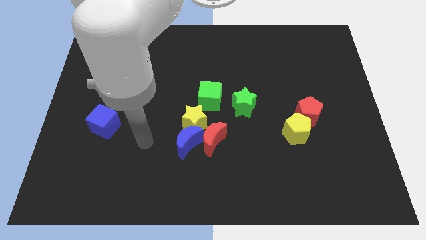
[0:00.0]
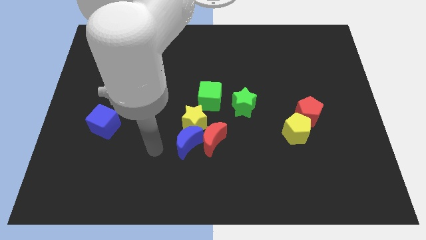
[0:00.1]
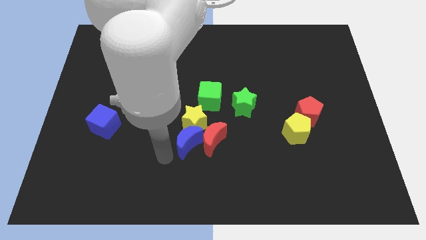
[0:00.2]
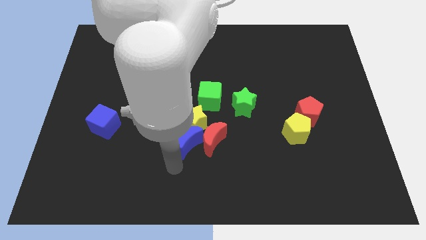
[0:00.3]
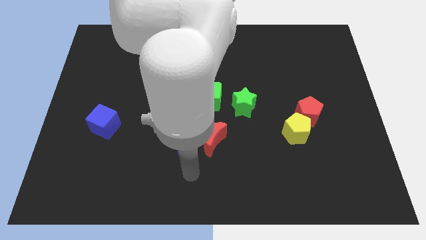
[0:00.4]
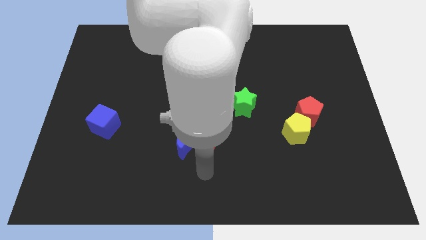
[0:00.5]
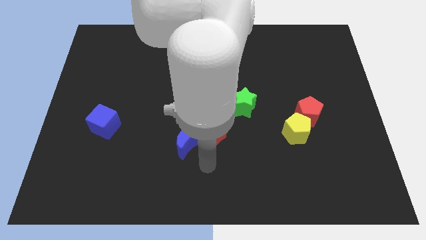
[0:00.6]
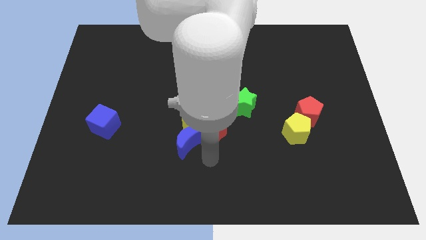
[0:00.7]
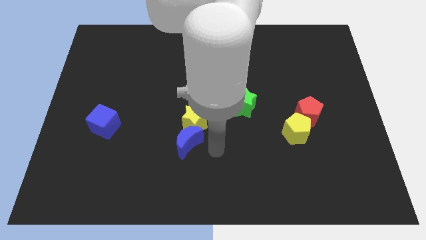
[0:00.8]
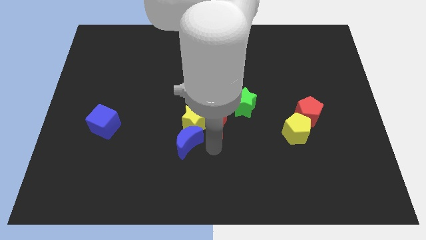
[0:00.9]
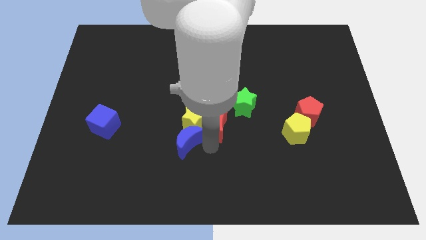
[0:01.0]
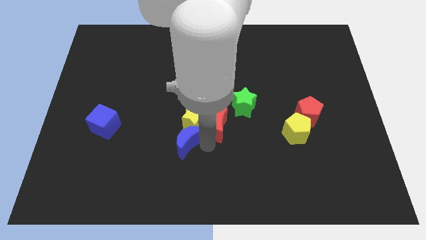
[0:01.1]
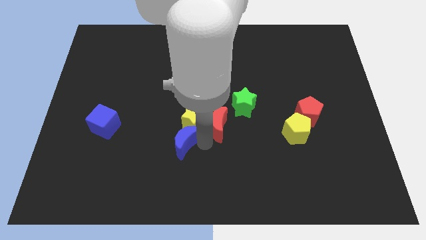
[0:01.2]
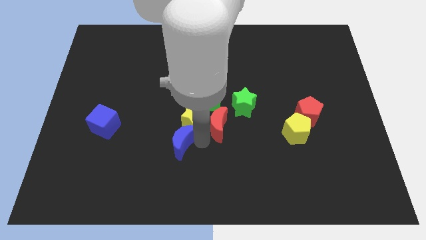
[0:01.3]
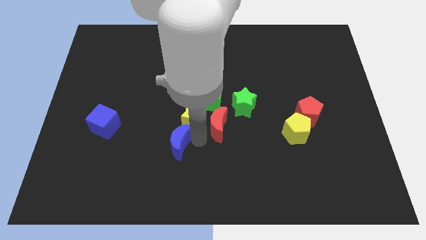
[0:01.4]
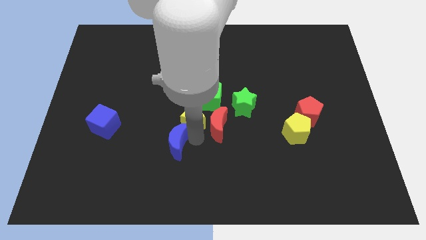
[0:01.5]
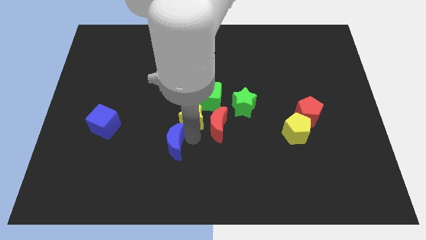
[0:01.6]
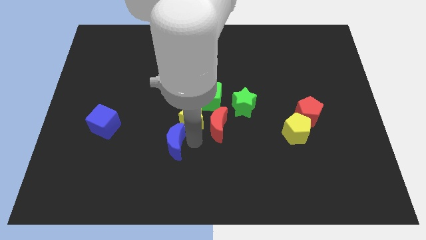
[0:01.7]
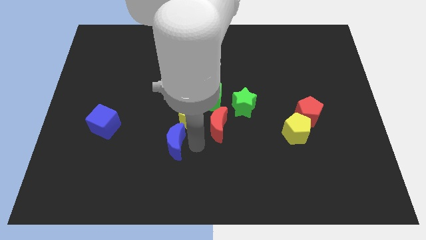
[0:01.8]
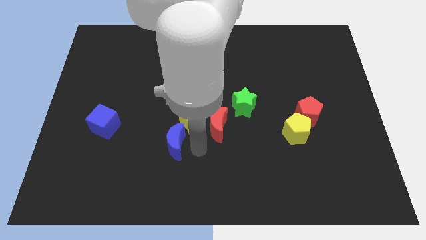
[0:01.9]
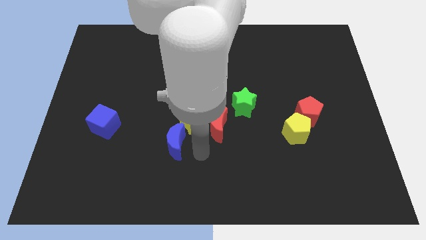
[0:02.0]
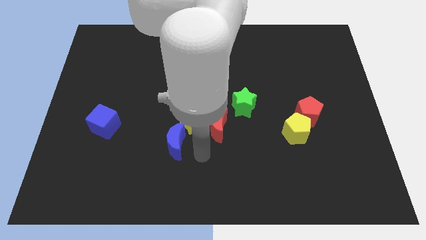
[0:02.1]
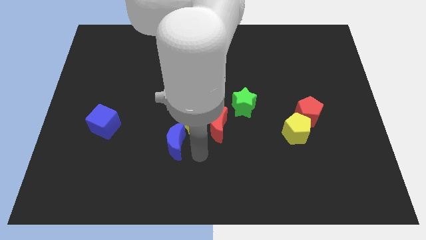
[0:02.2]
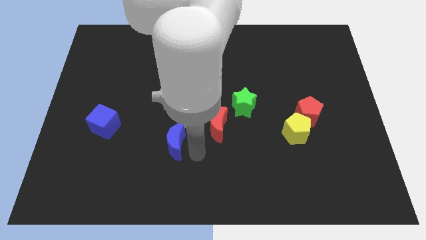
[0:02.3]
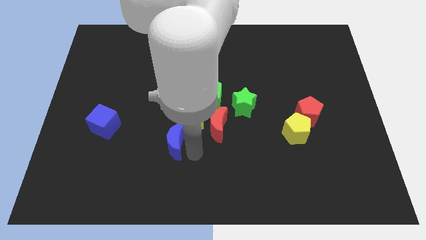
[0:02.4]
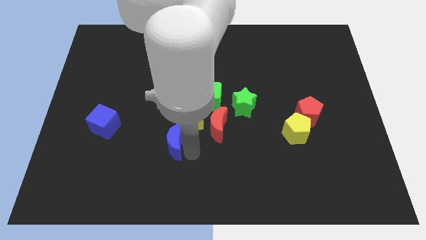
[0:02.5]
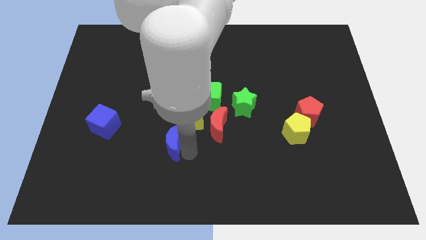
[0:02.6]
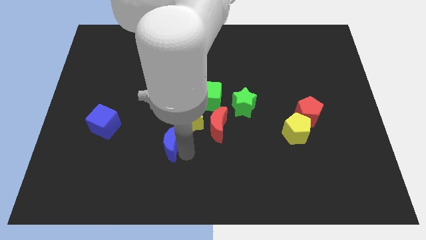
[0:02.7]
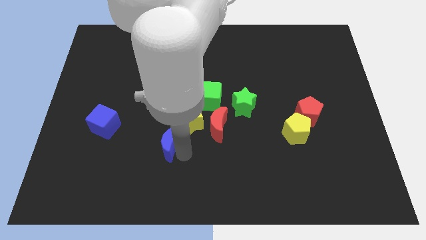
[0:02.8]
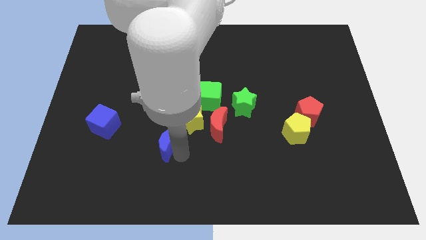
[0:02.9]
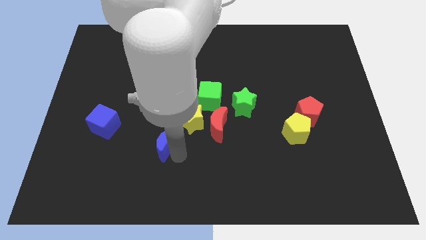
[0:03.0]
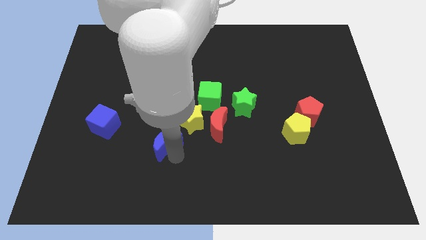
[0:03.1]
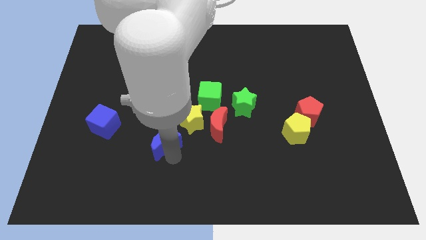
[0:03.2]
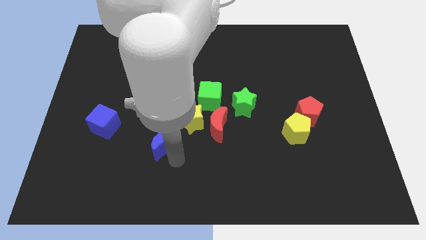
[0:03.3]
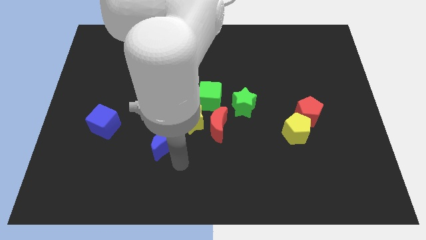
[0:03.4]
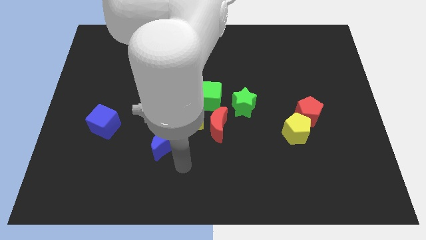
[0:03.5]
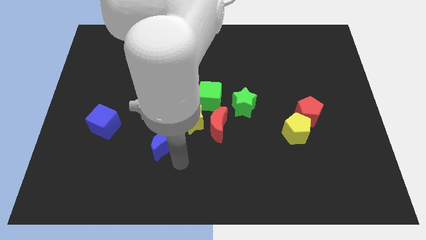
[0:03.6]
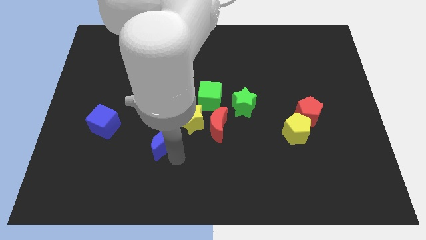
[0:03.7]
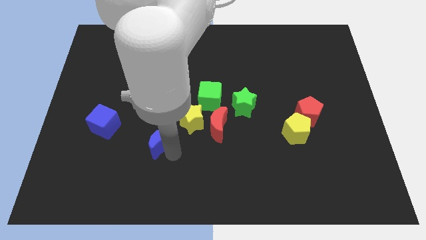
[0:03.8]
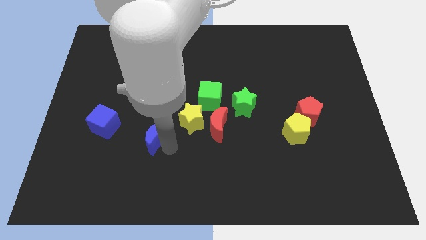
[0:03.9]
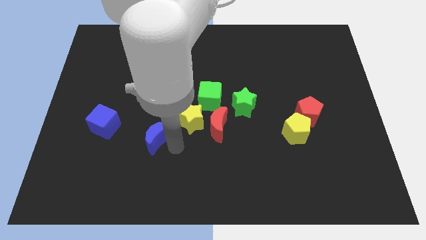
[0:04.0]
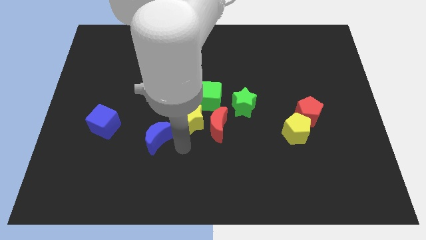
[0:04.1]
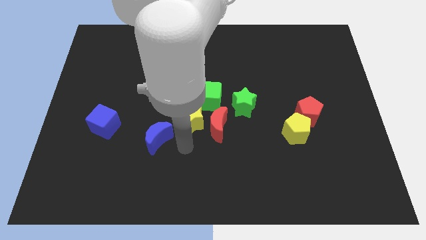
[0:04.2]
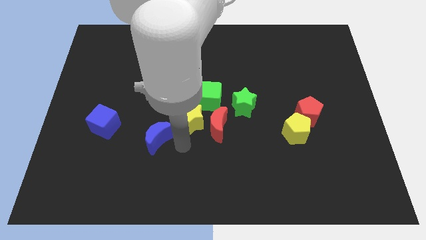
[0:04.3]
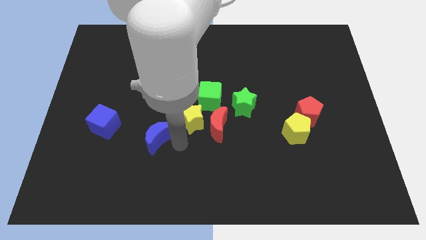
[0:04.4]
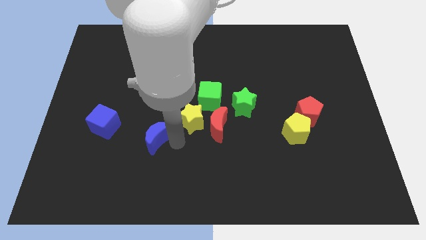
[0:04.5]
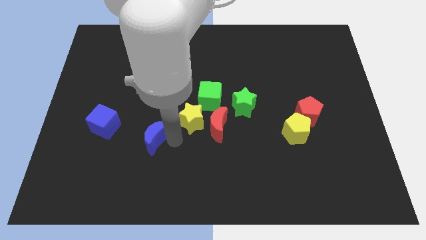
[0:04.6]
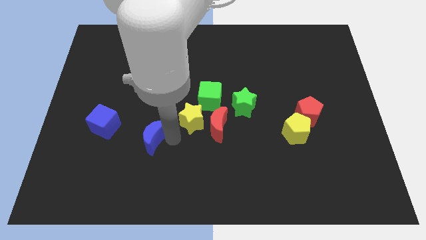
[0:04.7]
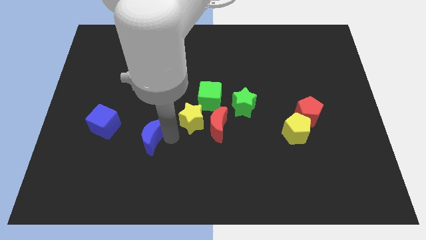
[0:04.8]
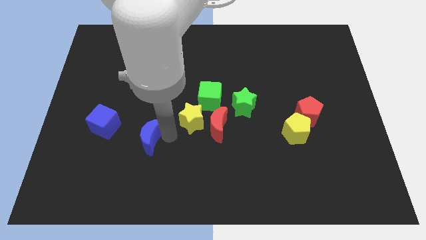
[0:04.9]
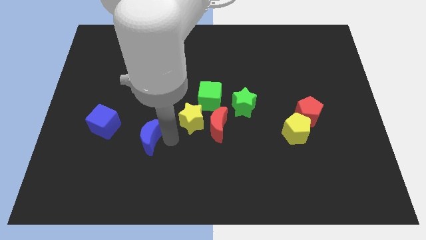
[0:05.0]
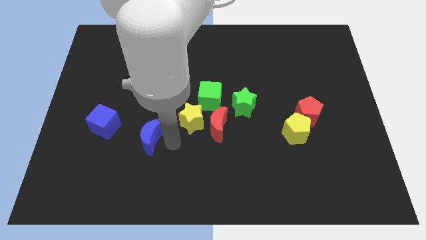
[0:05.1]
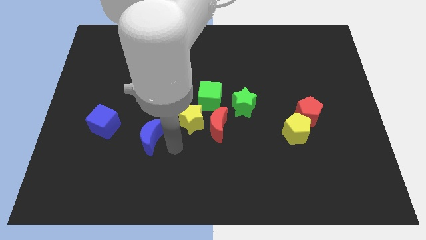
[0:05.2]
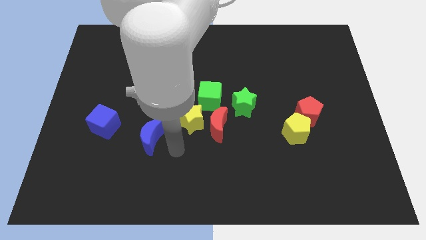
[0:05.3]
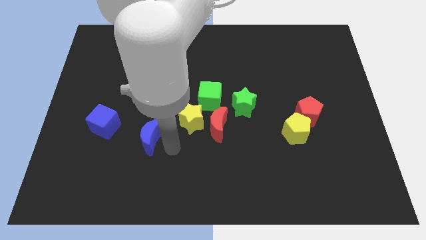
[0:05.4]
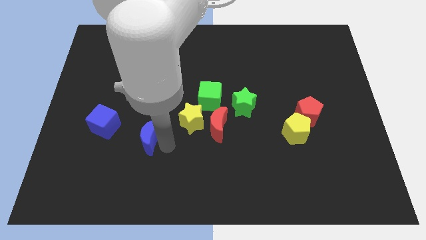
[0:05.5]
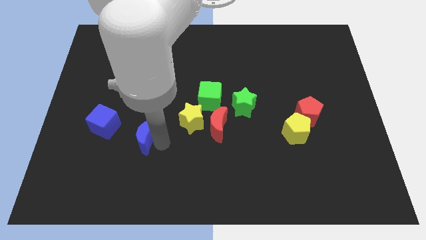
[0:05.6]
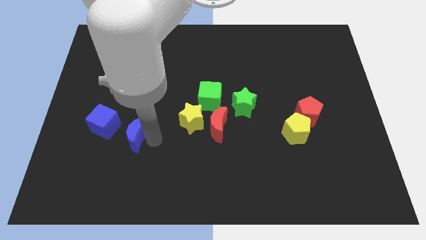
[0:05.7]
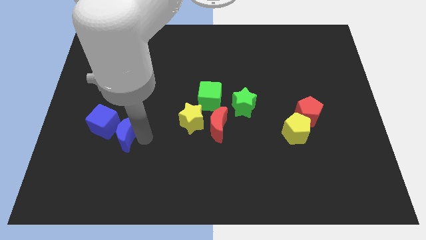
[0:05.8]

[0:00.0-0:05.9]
slide the blue moon close to the blue cube

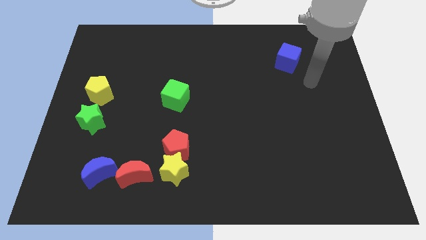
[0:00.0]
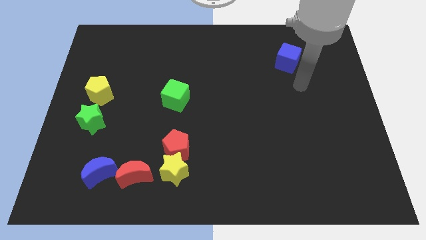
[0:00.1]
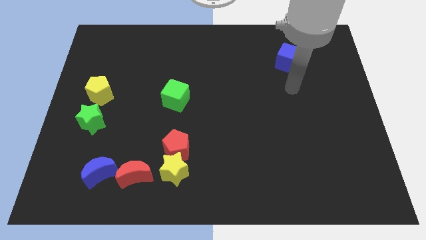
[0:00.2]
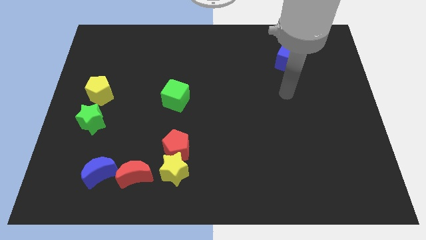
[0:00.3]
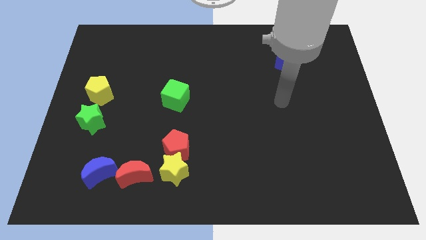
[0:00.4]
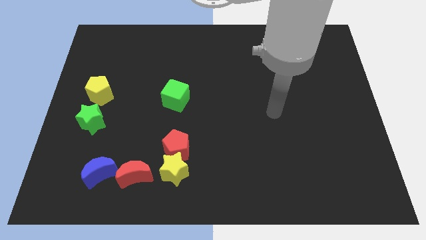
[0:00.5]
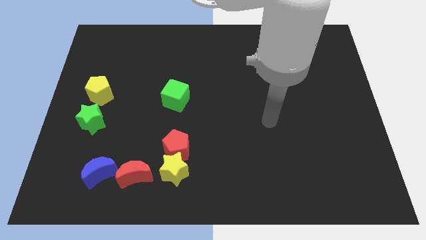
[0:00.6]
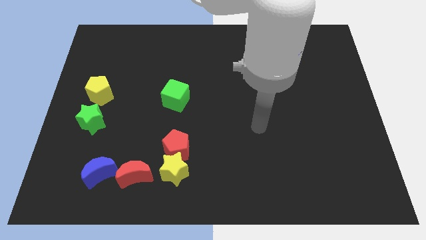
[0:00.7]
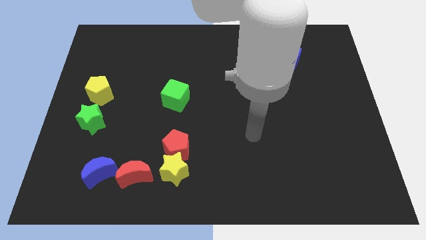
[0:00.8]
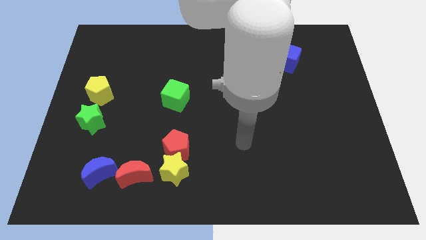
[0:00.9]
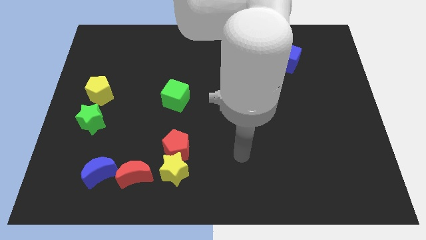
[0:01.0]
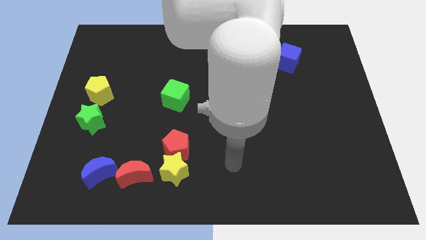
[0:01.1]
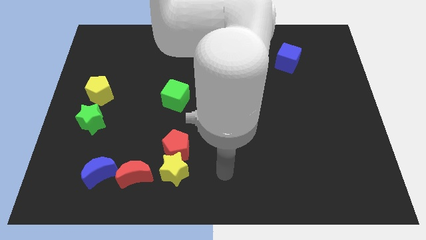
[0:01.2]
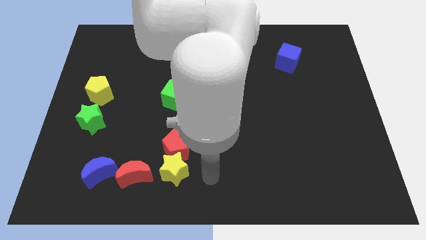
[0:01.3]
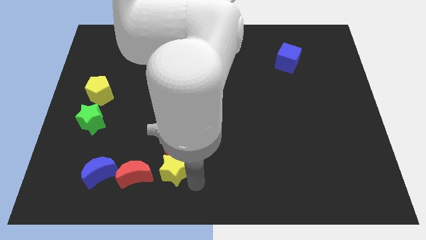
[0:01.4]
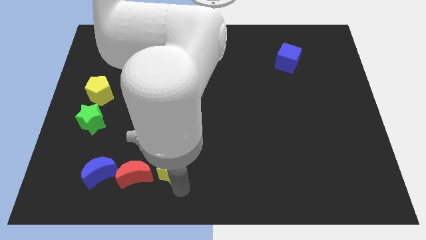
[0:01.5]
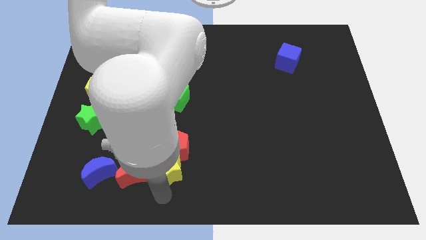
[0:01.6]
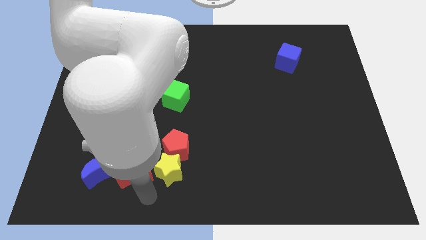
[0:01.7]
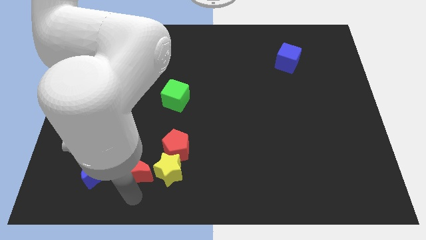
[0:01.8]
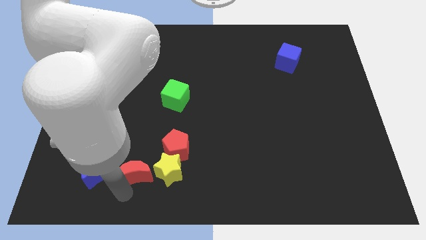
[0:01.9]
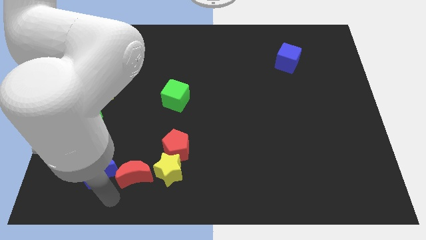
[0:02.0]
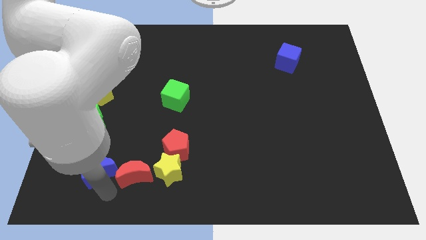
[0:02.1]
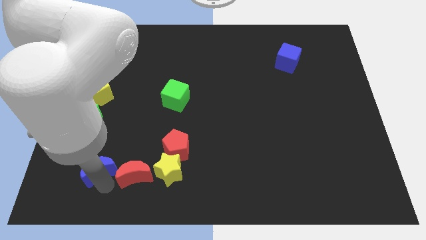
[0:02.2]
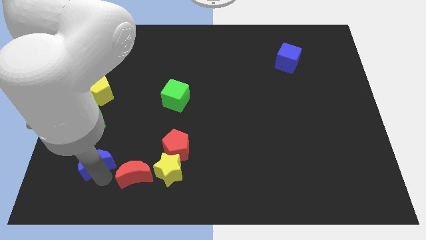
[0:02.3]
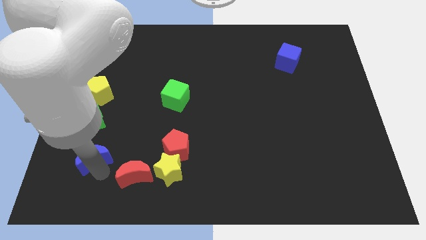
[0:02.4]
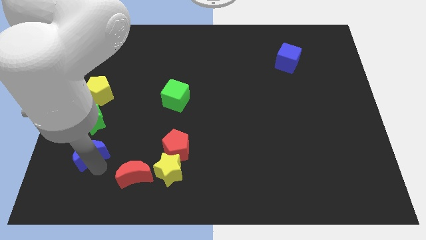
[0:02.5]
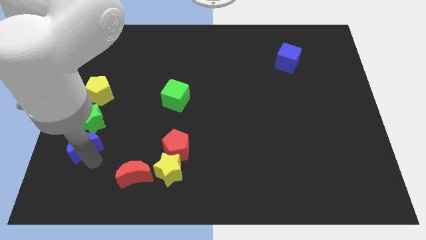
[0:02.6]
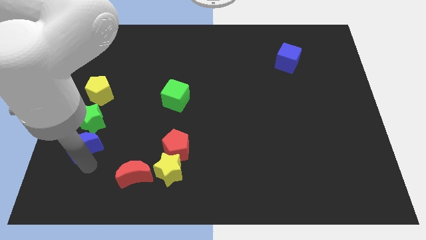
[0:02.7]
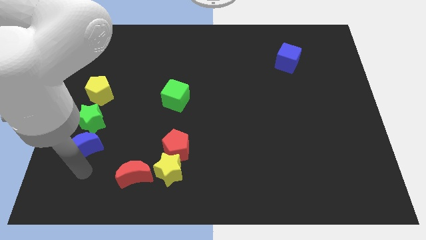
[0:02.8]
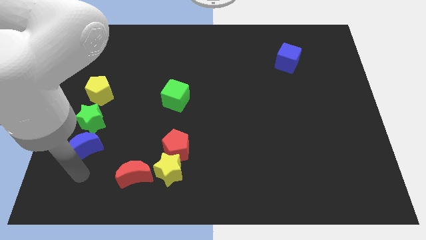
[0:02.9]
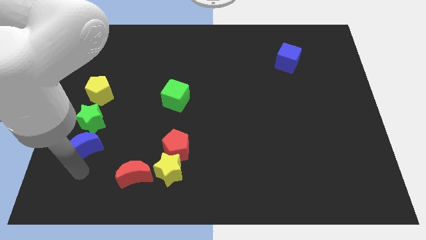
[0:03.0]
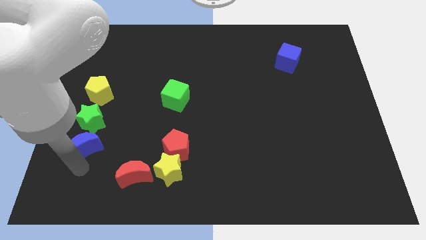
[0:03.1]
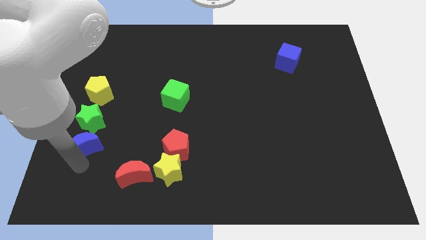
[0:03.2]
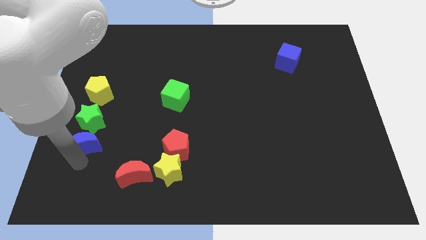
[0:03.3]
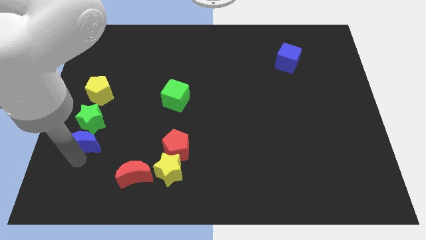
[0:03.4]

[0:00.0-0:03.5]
put the blue moon next to the green star
